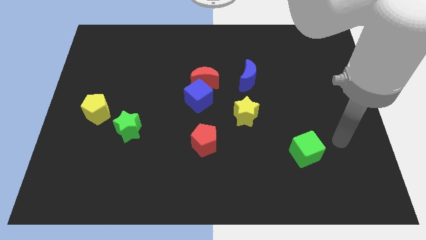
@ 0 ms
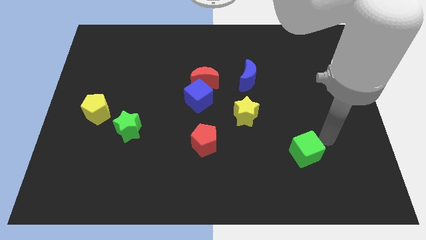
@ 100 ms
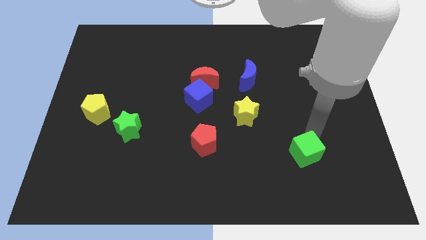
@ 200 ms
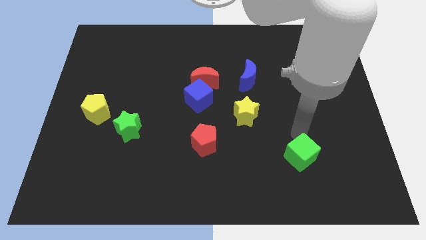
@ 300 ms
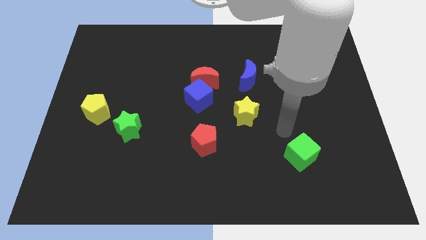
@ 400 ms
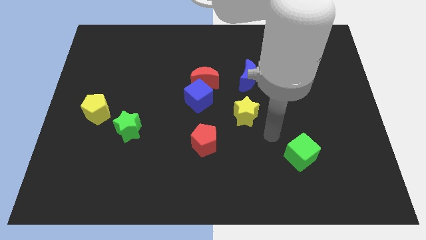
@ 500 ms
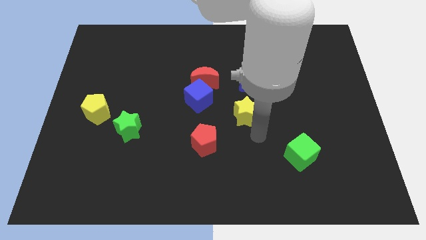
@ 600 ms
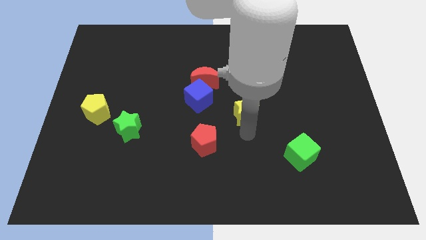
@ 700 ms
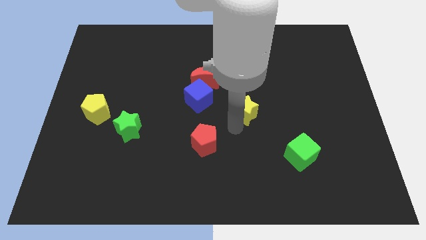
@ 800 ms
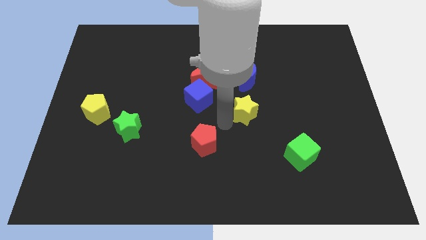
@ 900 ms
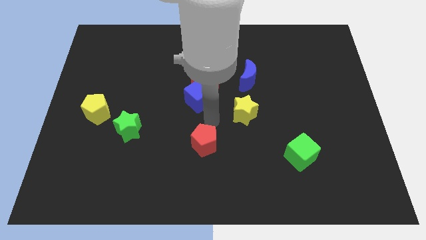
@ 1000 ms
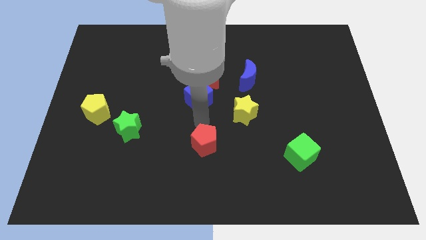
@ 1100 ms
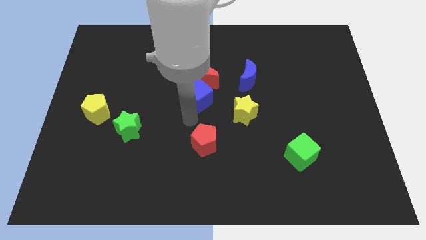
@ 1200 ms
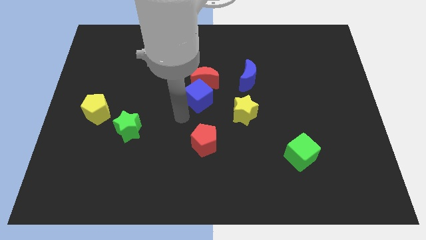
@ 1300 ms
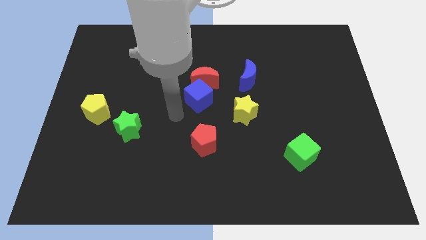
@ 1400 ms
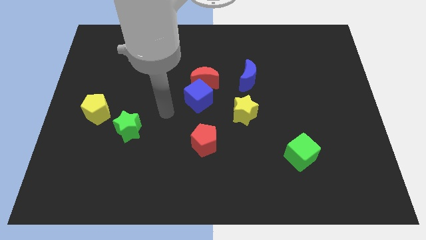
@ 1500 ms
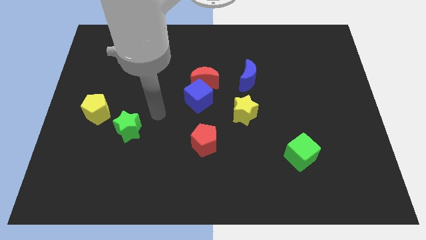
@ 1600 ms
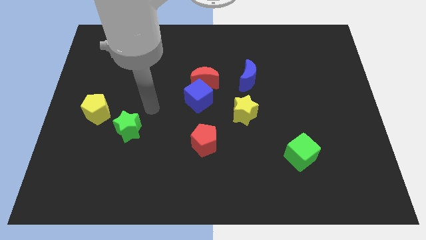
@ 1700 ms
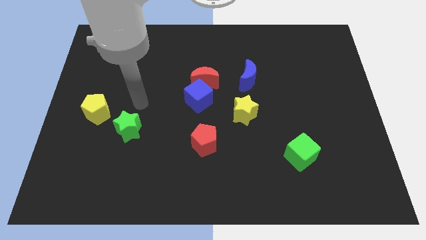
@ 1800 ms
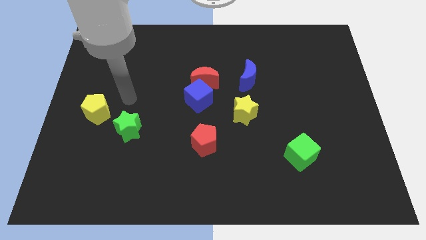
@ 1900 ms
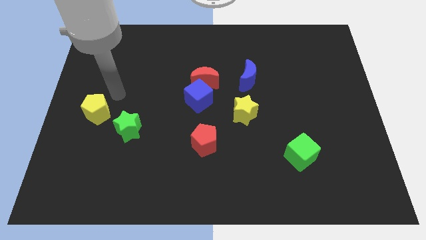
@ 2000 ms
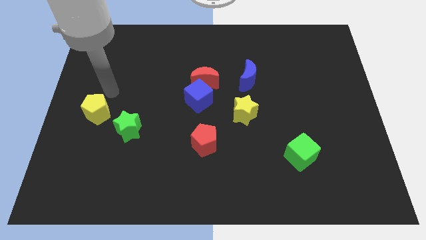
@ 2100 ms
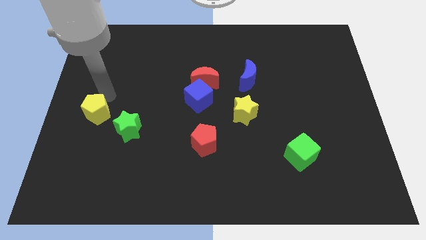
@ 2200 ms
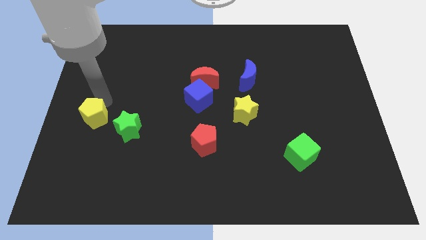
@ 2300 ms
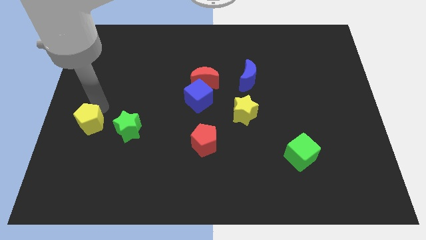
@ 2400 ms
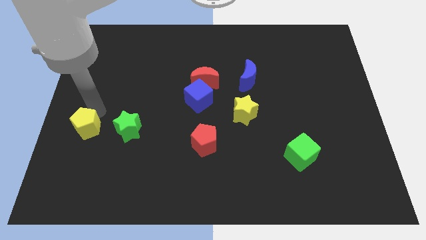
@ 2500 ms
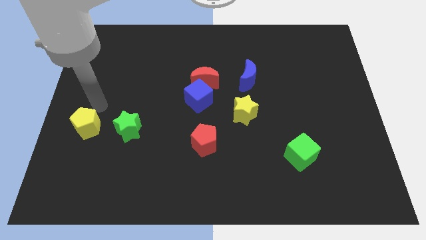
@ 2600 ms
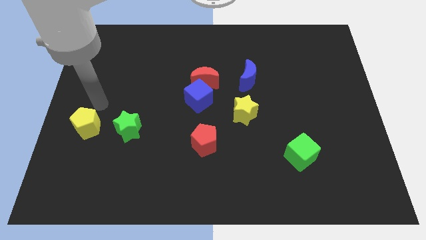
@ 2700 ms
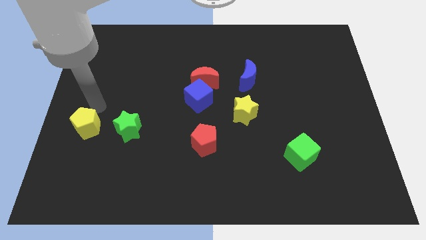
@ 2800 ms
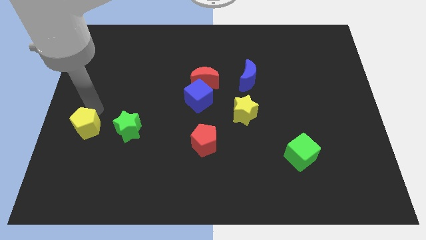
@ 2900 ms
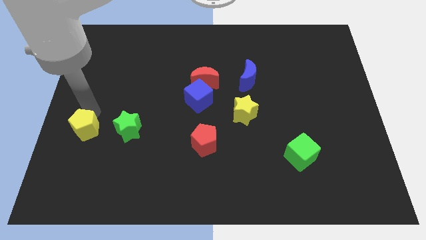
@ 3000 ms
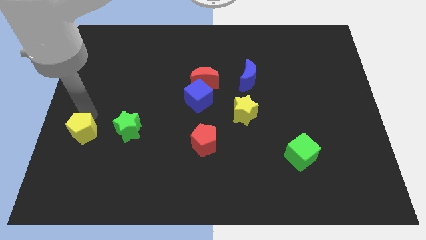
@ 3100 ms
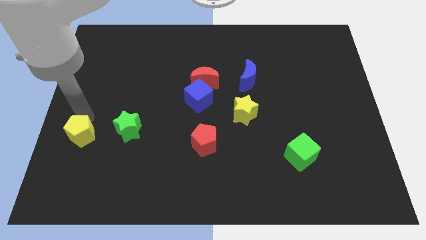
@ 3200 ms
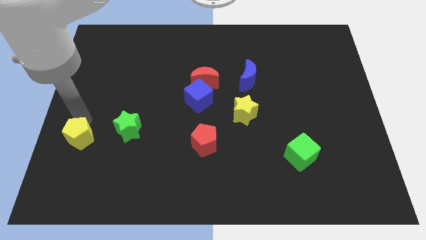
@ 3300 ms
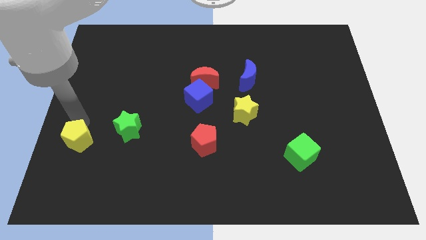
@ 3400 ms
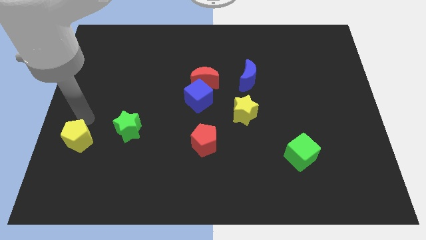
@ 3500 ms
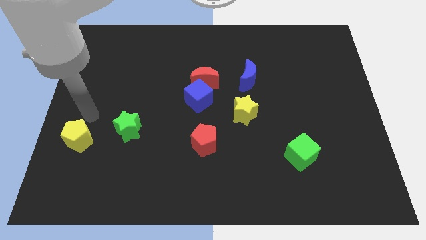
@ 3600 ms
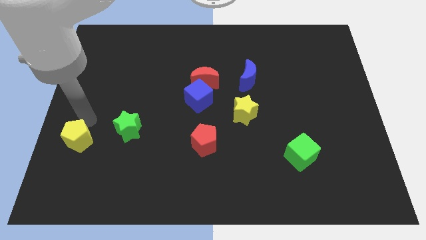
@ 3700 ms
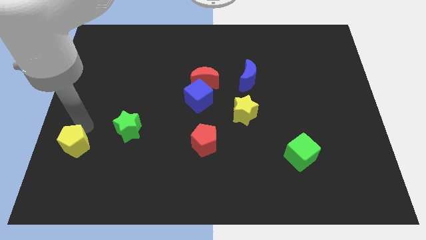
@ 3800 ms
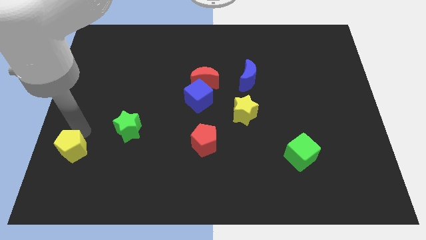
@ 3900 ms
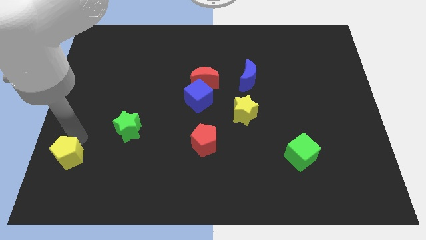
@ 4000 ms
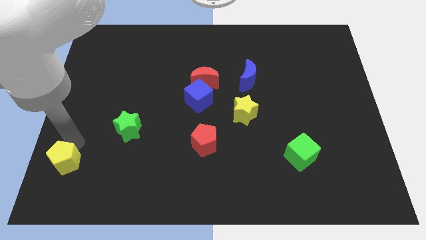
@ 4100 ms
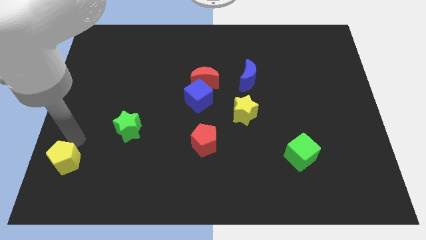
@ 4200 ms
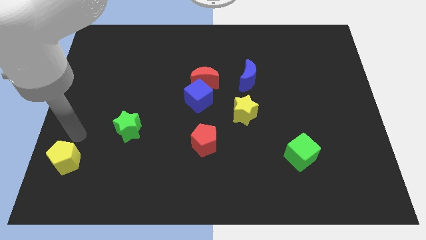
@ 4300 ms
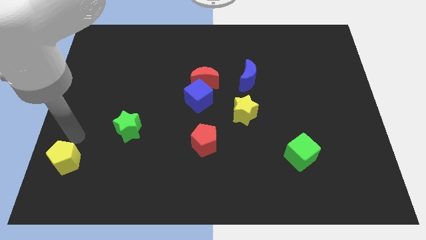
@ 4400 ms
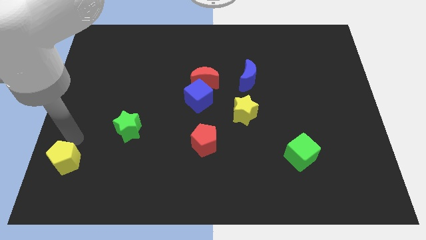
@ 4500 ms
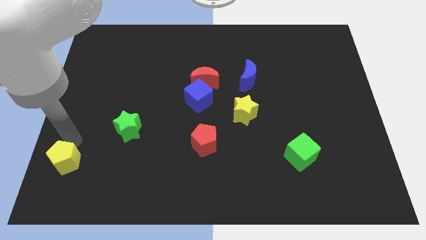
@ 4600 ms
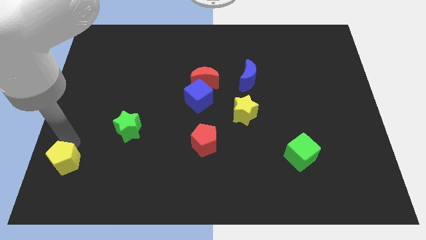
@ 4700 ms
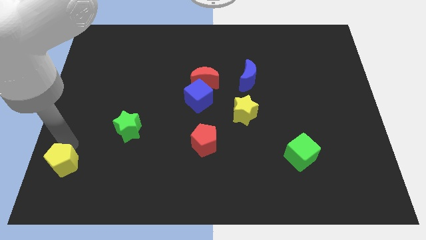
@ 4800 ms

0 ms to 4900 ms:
push the yellow pentagon to the bottom left corner

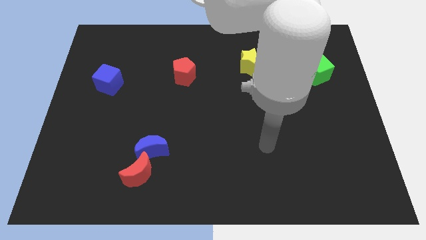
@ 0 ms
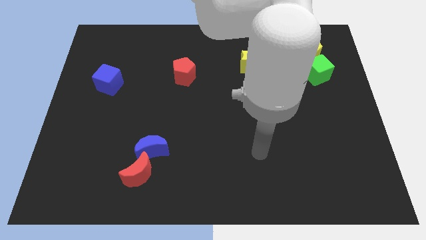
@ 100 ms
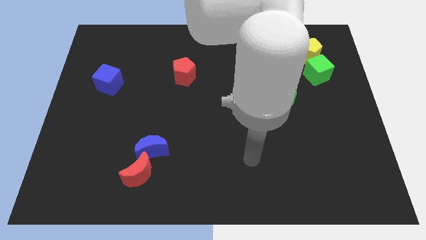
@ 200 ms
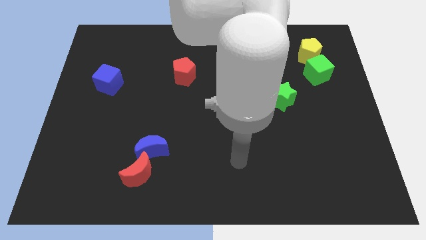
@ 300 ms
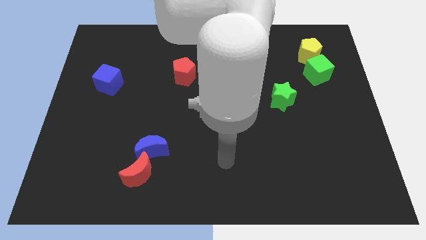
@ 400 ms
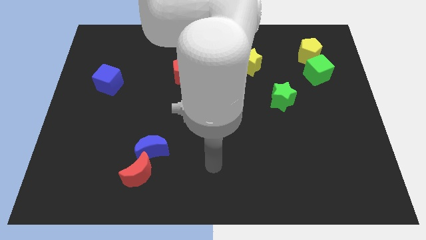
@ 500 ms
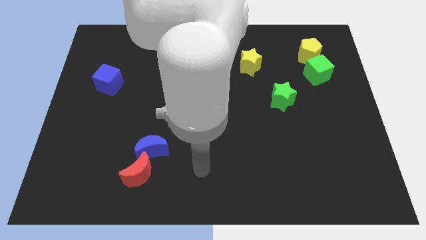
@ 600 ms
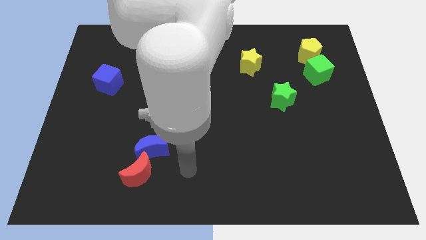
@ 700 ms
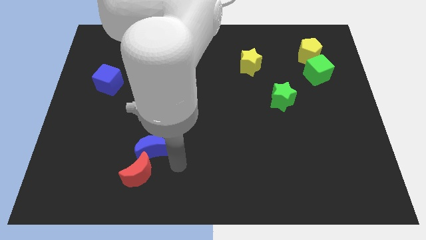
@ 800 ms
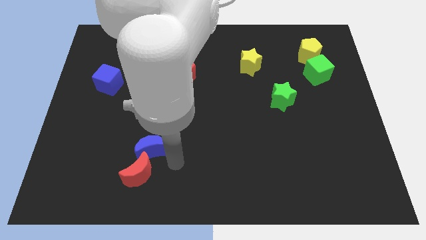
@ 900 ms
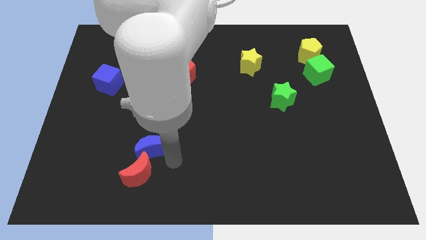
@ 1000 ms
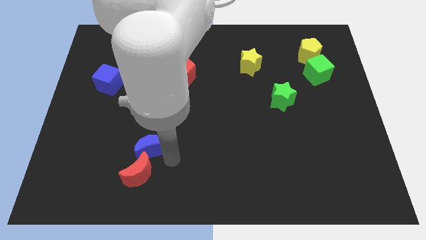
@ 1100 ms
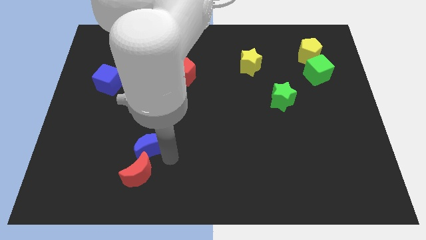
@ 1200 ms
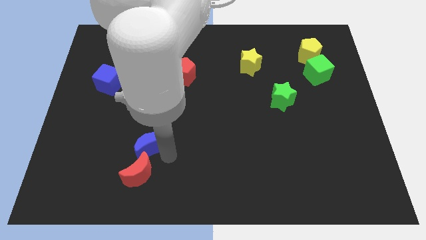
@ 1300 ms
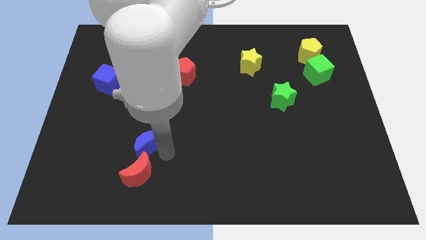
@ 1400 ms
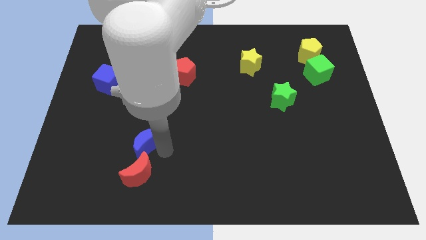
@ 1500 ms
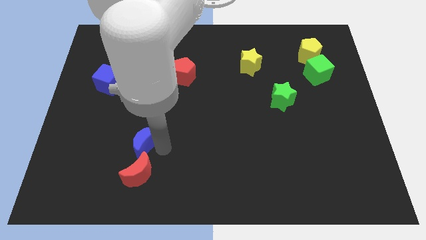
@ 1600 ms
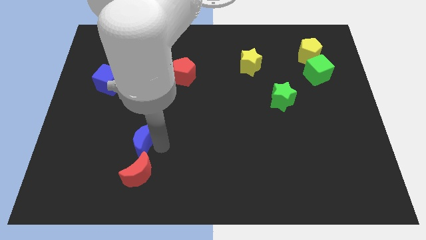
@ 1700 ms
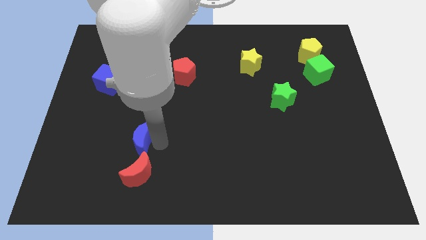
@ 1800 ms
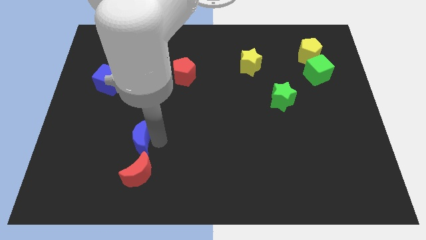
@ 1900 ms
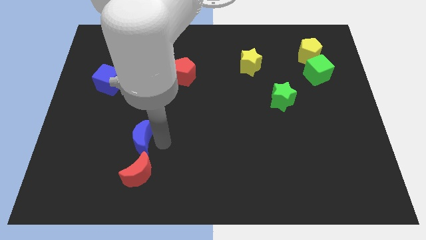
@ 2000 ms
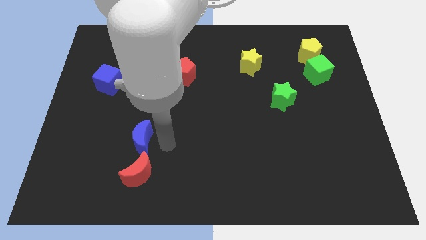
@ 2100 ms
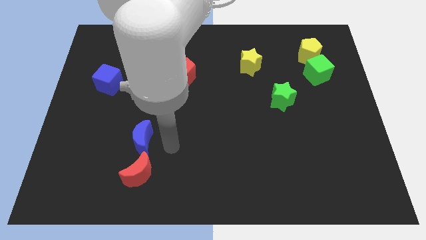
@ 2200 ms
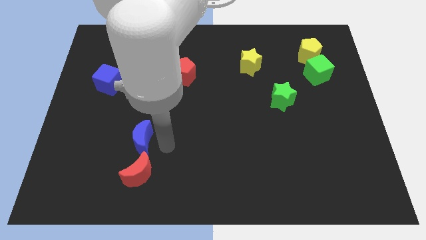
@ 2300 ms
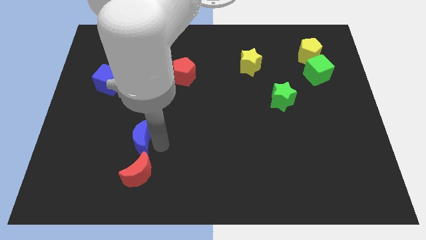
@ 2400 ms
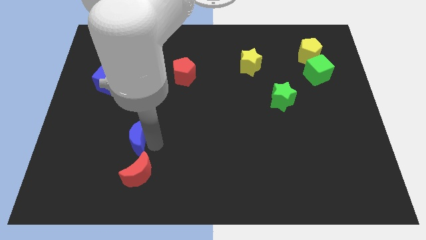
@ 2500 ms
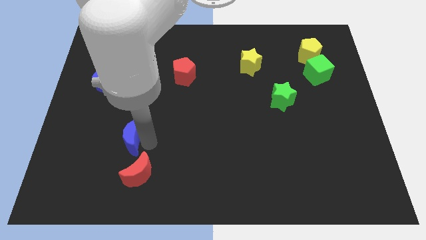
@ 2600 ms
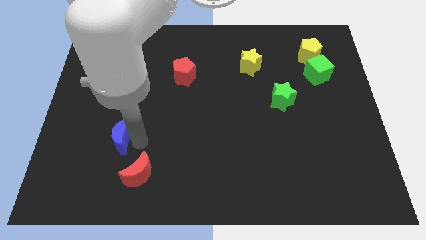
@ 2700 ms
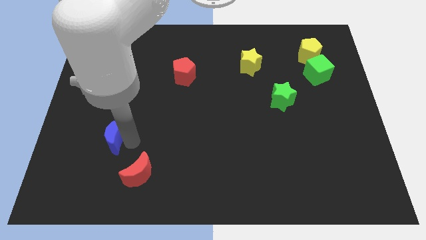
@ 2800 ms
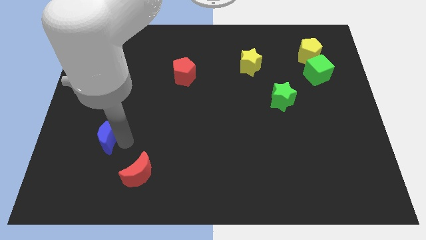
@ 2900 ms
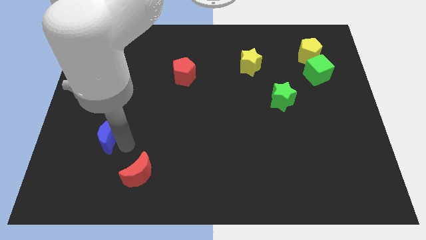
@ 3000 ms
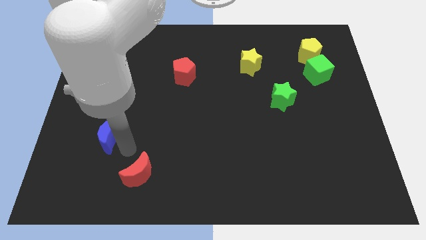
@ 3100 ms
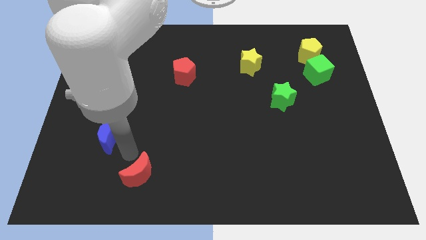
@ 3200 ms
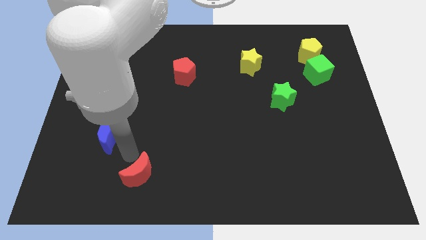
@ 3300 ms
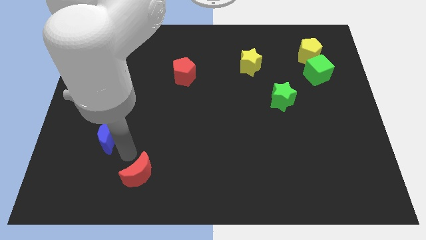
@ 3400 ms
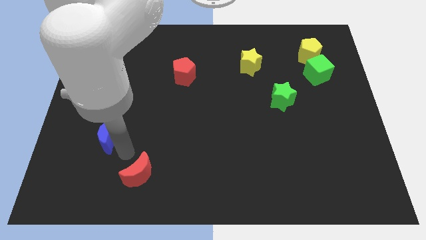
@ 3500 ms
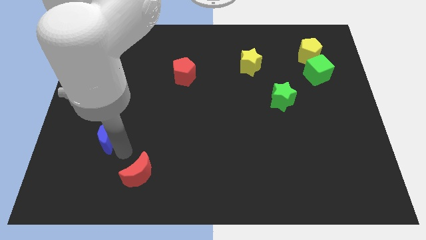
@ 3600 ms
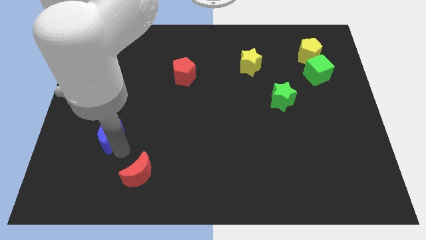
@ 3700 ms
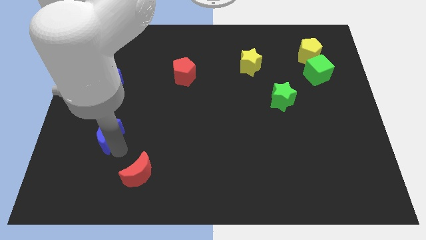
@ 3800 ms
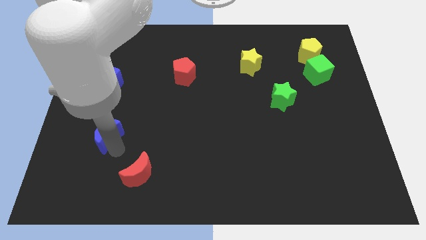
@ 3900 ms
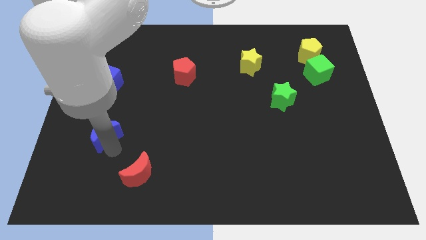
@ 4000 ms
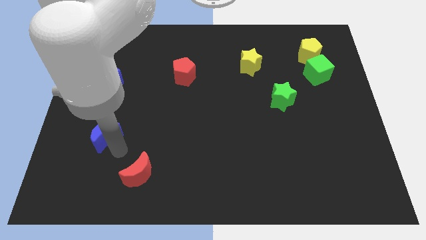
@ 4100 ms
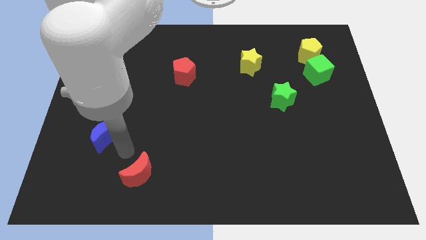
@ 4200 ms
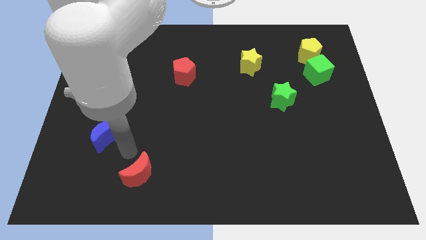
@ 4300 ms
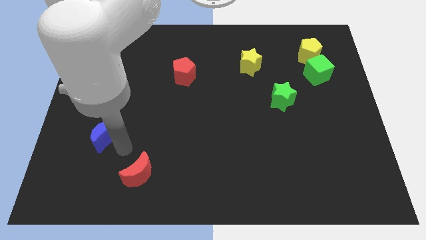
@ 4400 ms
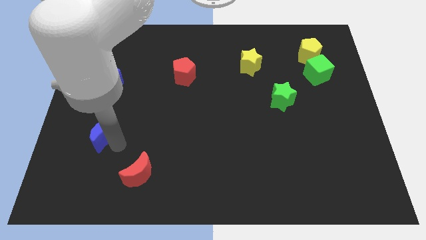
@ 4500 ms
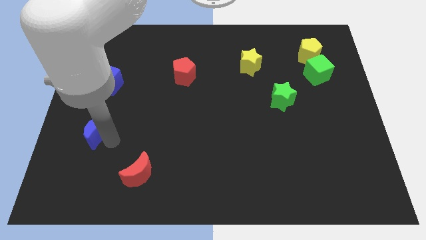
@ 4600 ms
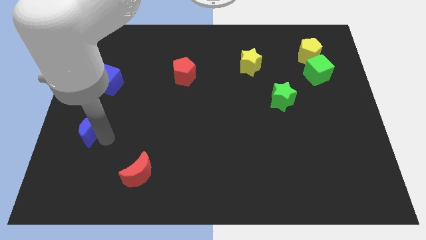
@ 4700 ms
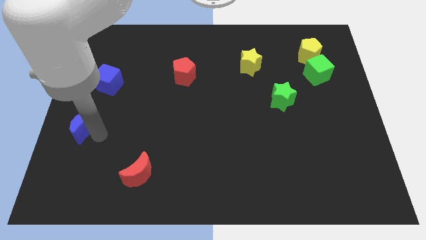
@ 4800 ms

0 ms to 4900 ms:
slide the blue moon to the center left
